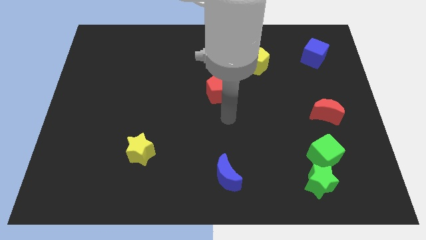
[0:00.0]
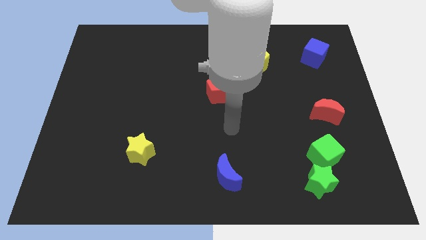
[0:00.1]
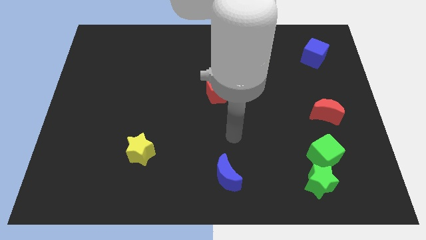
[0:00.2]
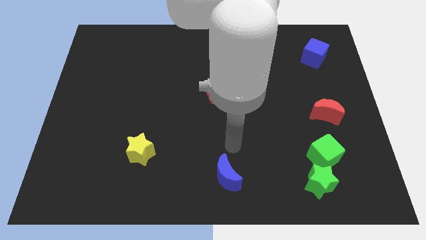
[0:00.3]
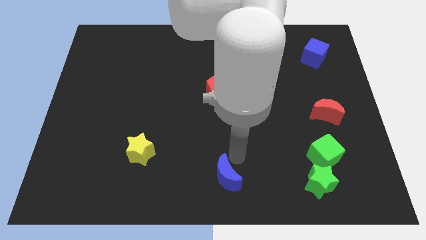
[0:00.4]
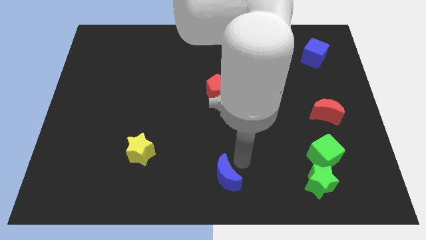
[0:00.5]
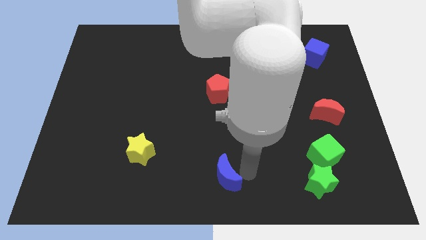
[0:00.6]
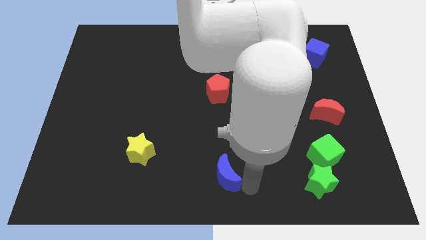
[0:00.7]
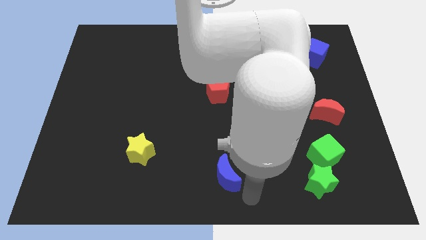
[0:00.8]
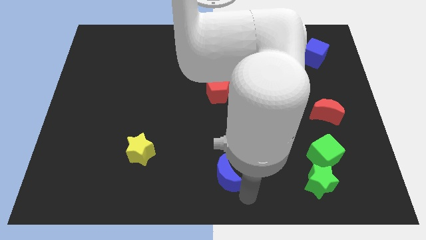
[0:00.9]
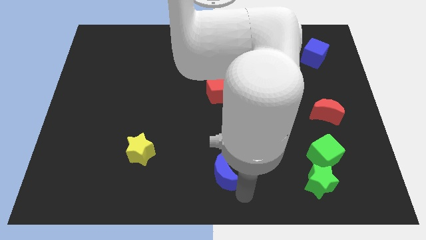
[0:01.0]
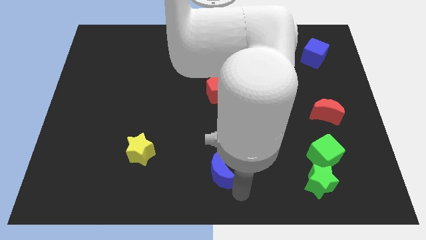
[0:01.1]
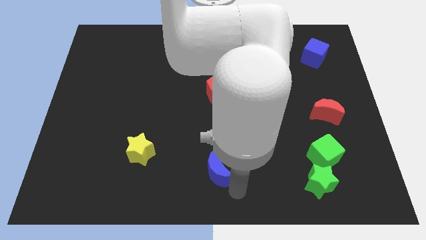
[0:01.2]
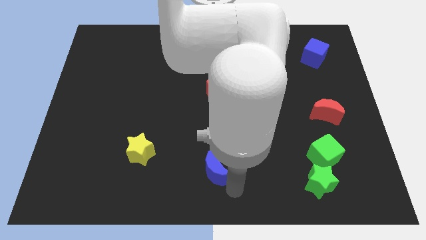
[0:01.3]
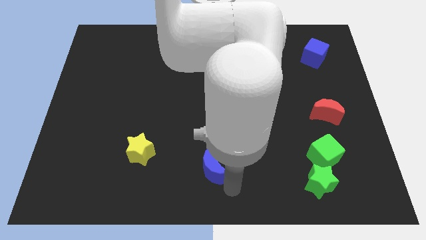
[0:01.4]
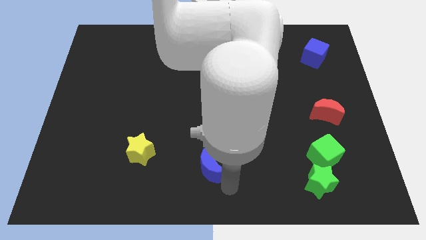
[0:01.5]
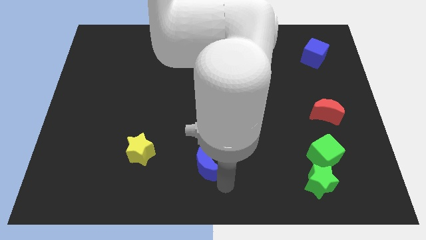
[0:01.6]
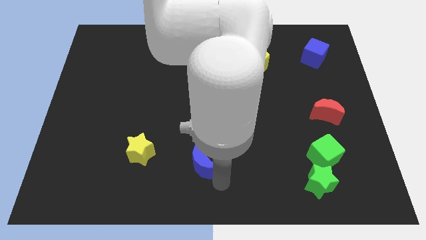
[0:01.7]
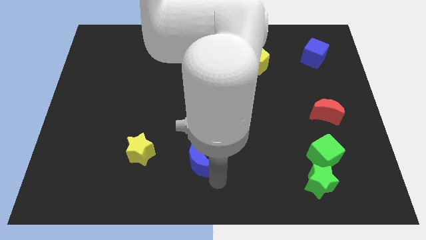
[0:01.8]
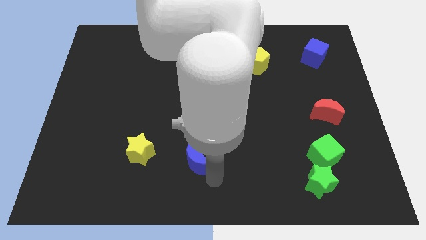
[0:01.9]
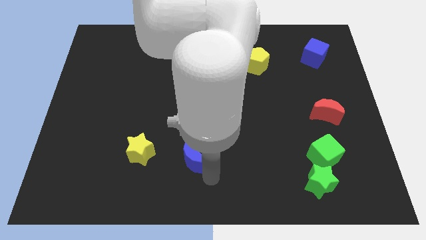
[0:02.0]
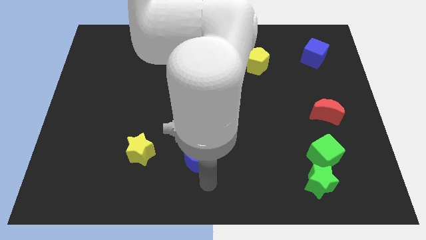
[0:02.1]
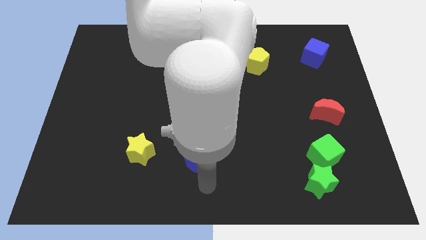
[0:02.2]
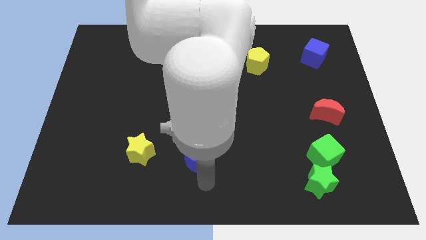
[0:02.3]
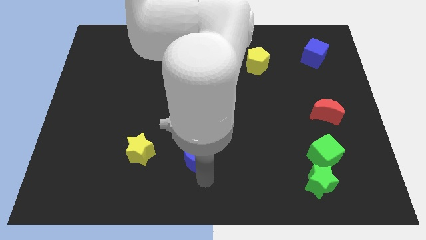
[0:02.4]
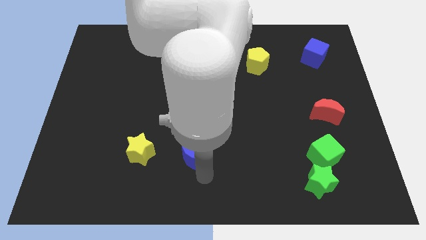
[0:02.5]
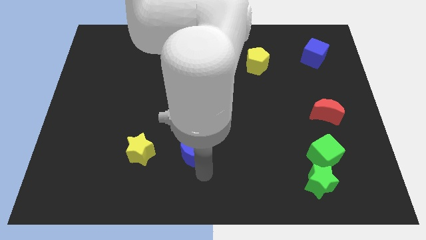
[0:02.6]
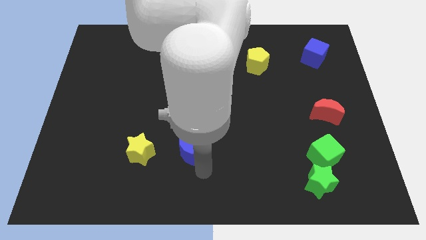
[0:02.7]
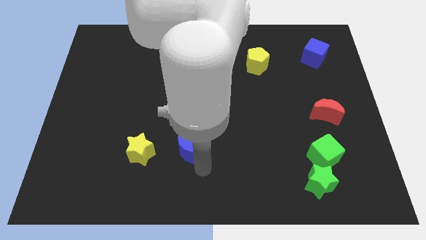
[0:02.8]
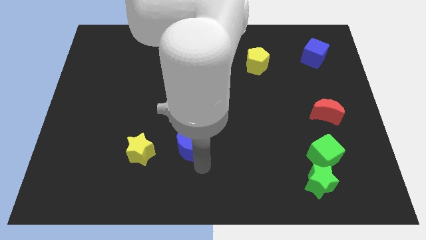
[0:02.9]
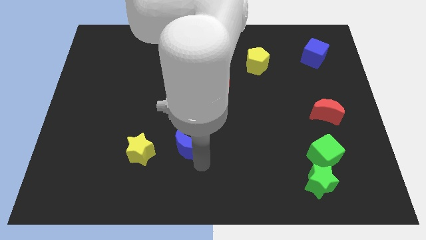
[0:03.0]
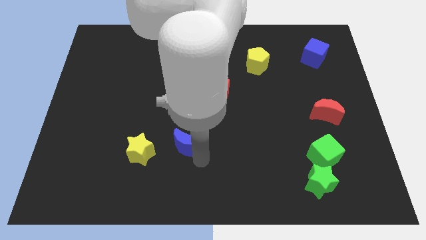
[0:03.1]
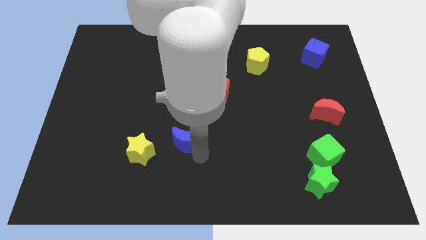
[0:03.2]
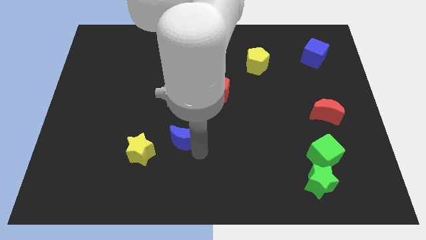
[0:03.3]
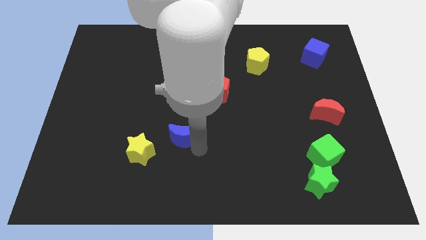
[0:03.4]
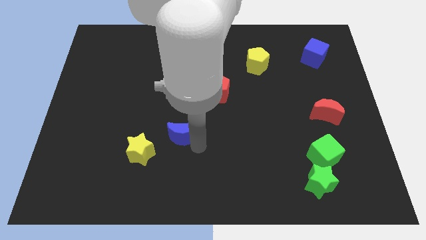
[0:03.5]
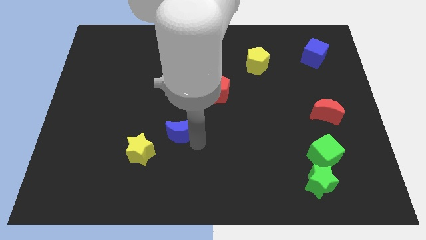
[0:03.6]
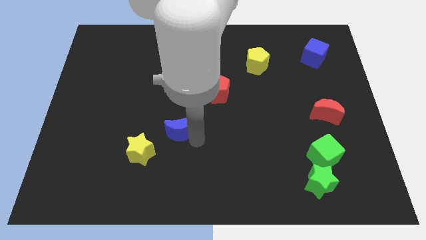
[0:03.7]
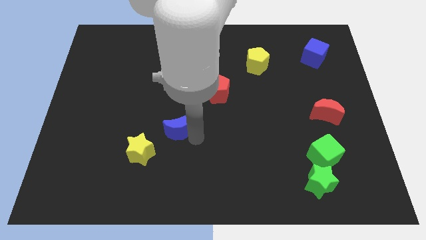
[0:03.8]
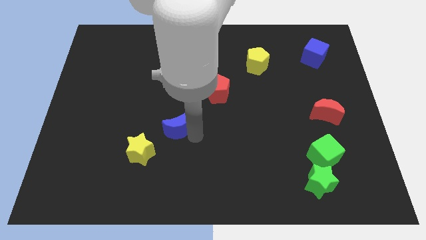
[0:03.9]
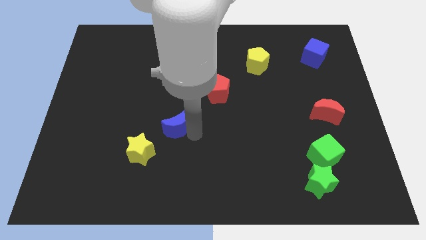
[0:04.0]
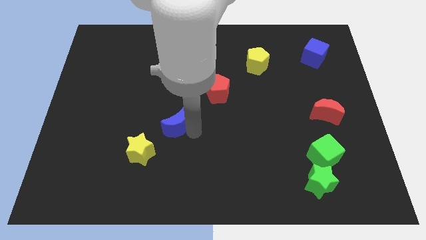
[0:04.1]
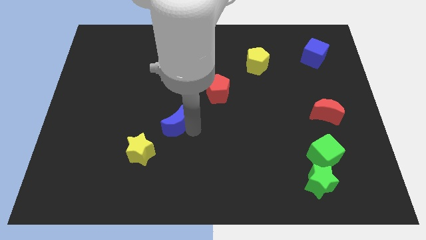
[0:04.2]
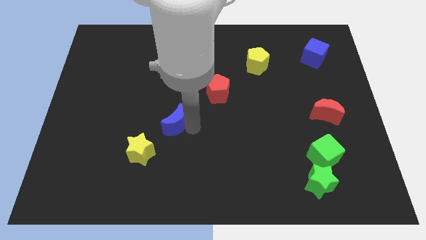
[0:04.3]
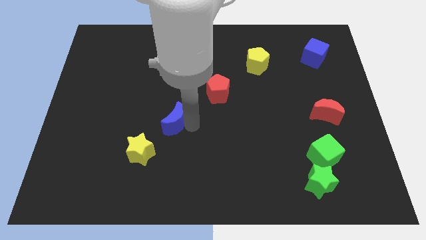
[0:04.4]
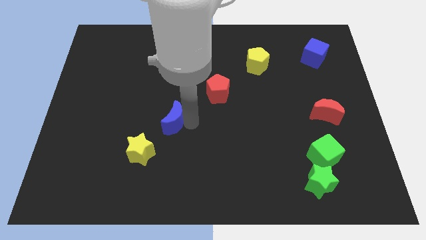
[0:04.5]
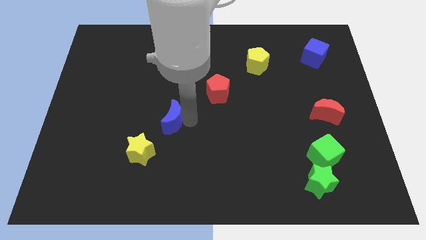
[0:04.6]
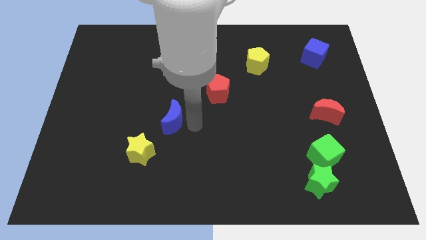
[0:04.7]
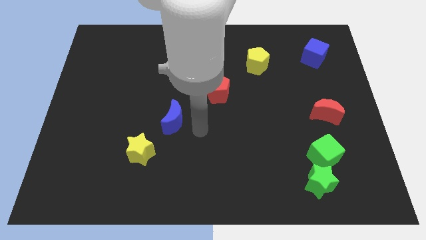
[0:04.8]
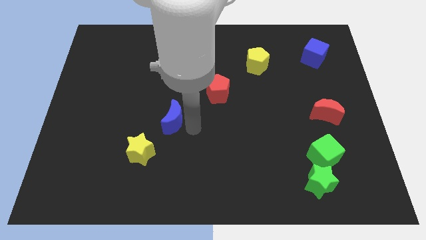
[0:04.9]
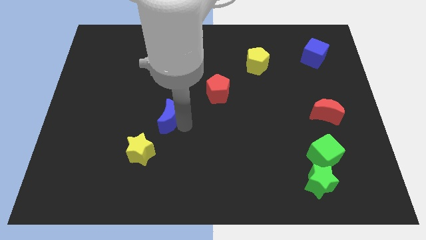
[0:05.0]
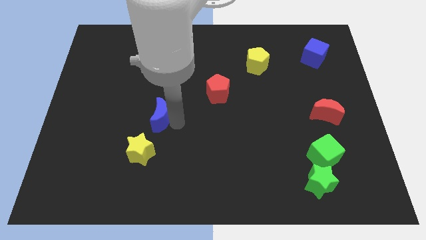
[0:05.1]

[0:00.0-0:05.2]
slide the blue moon up and left diagonally

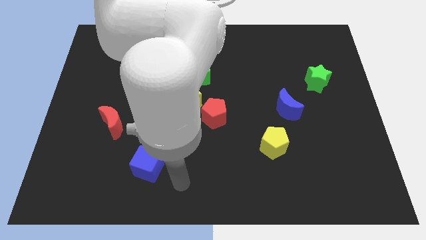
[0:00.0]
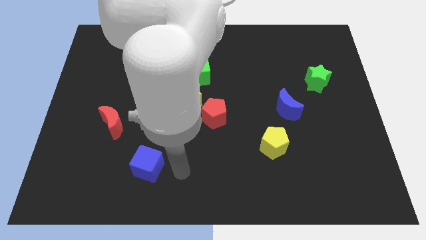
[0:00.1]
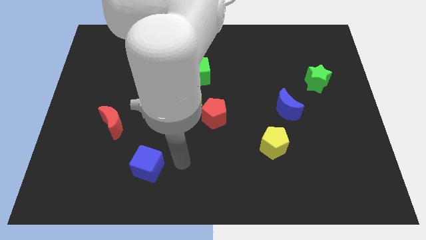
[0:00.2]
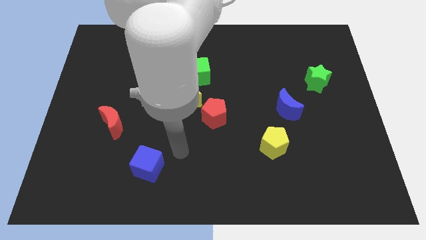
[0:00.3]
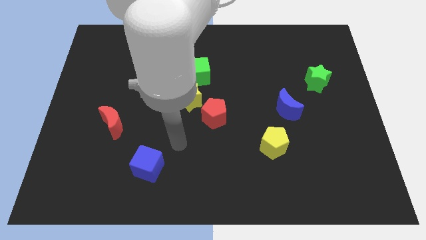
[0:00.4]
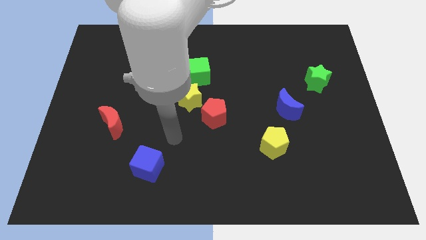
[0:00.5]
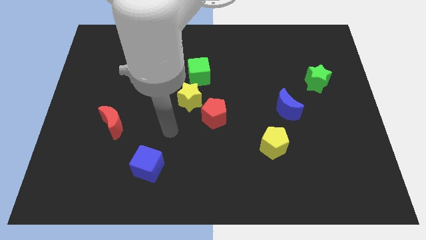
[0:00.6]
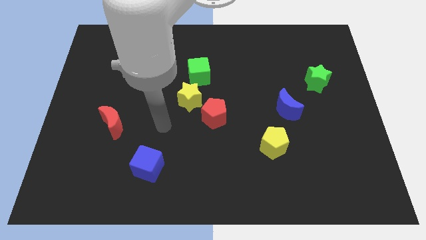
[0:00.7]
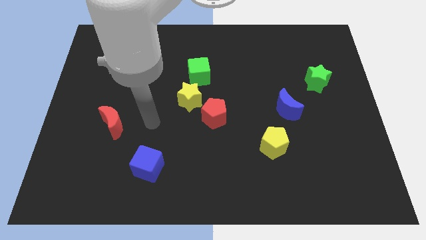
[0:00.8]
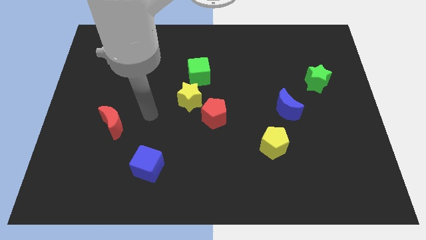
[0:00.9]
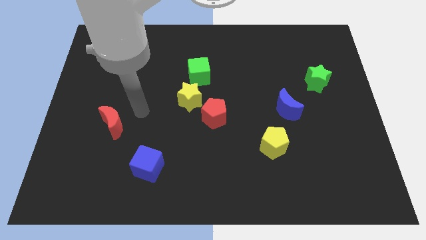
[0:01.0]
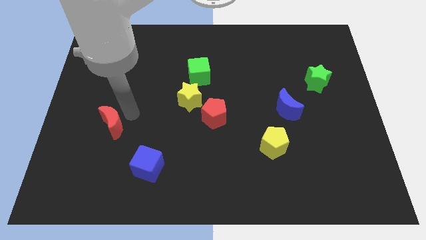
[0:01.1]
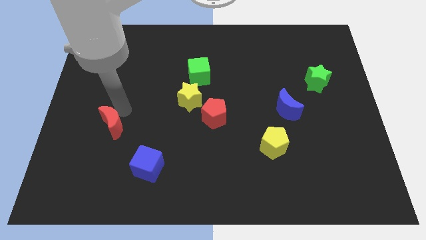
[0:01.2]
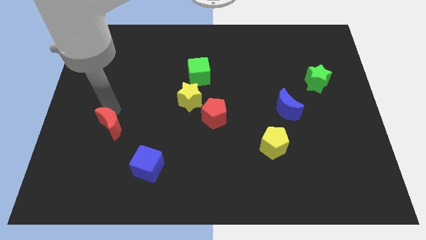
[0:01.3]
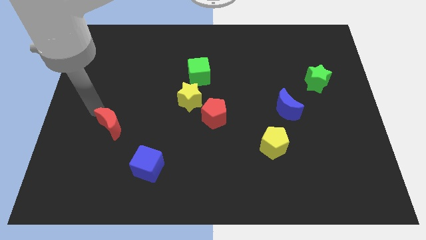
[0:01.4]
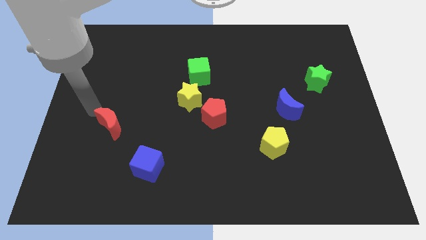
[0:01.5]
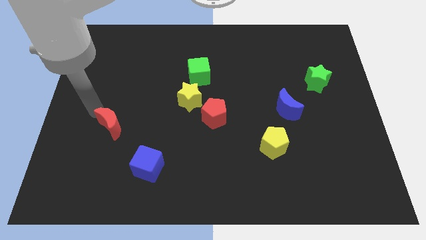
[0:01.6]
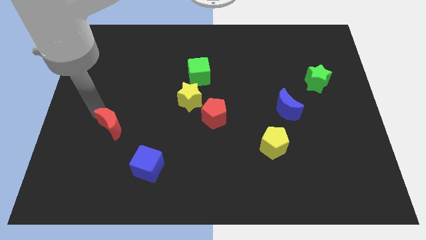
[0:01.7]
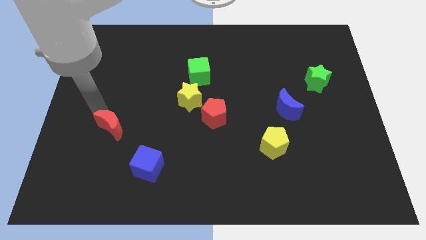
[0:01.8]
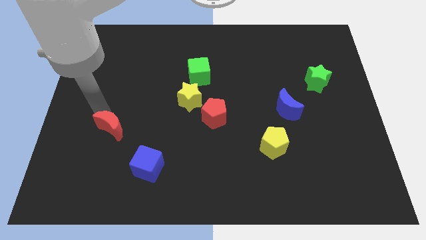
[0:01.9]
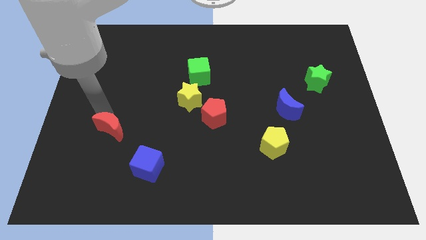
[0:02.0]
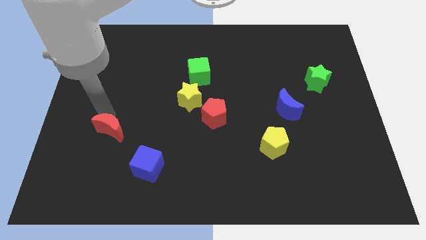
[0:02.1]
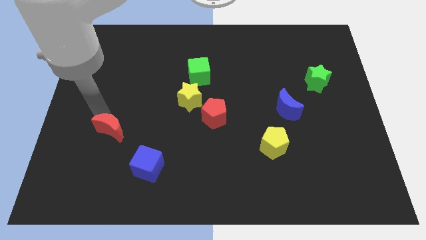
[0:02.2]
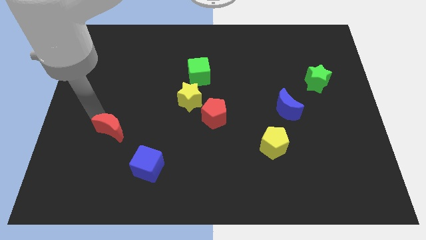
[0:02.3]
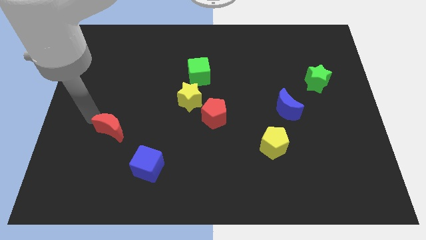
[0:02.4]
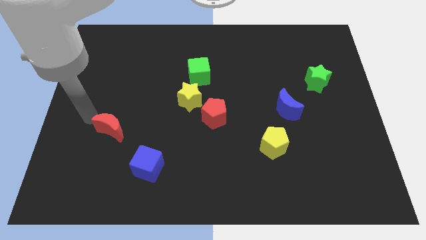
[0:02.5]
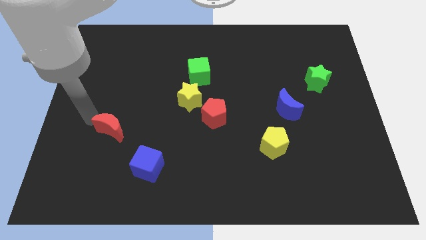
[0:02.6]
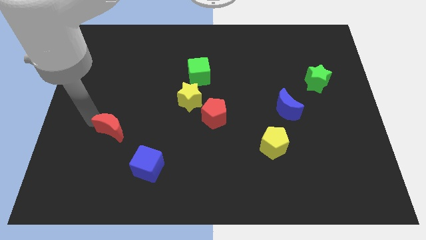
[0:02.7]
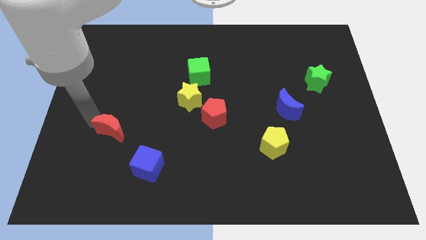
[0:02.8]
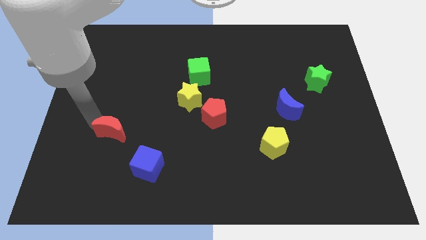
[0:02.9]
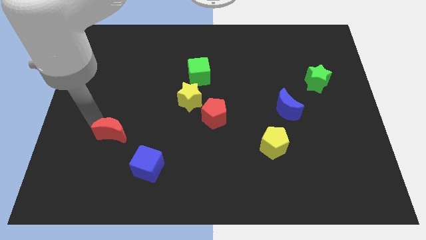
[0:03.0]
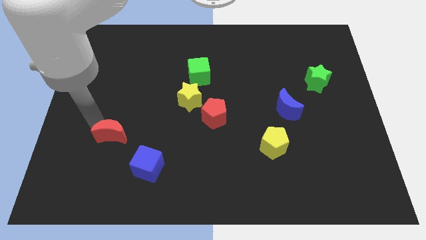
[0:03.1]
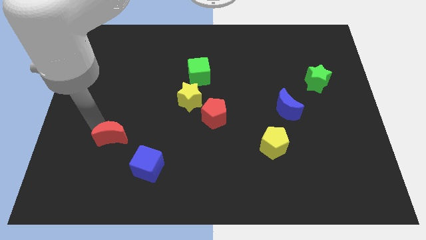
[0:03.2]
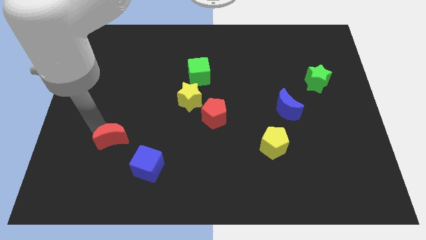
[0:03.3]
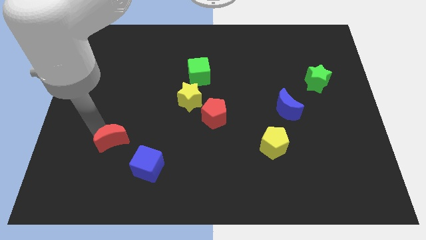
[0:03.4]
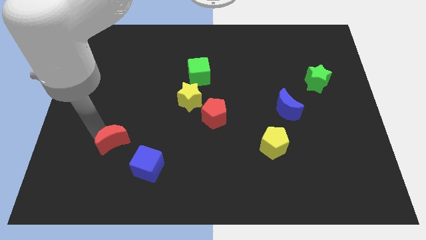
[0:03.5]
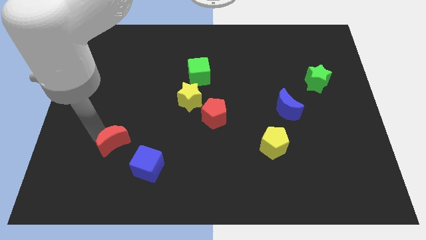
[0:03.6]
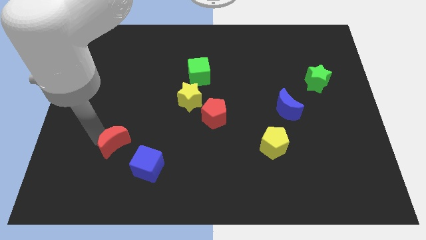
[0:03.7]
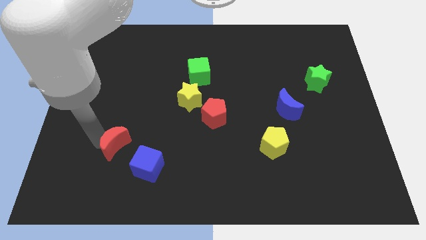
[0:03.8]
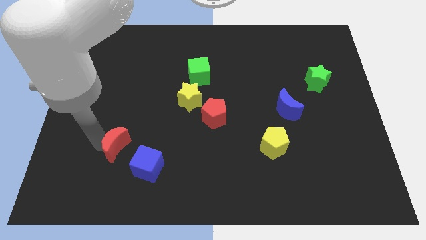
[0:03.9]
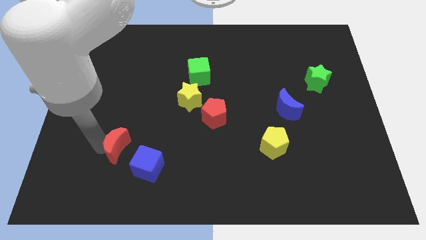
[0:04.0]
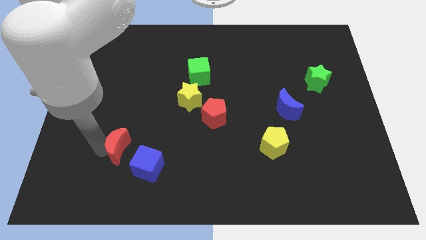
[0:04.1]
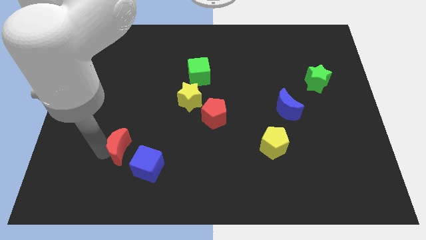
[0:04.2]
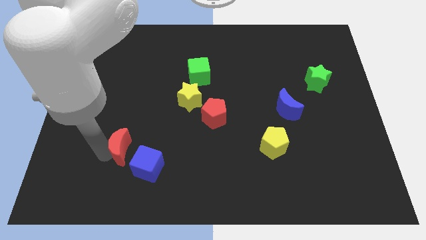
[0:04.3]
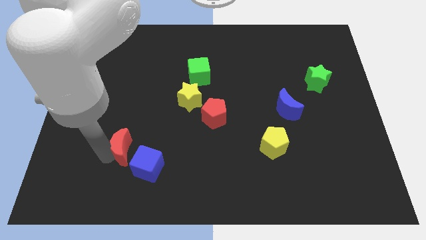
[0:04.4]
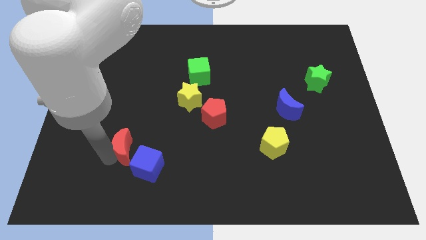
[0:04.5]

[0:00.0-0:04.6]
slightly move the red moon downwards and then to the right
